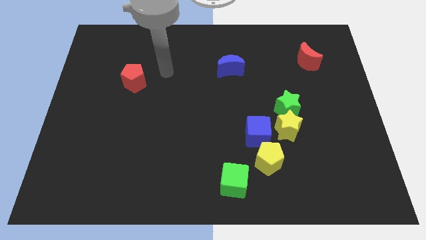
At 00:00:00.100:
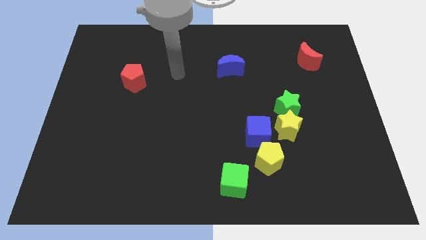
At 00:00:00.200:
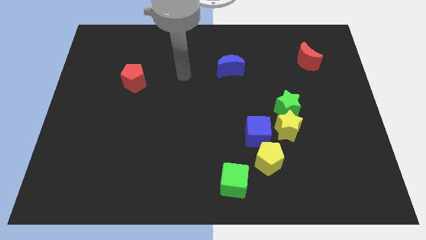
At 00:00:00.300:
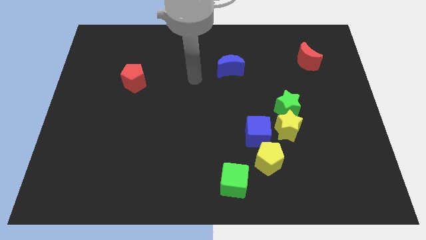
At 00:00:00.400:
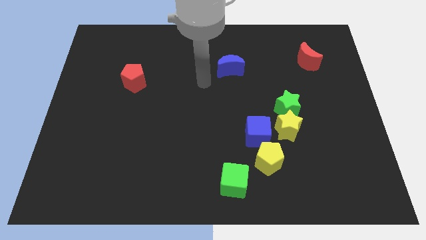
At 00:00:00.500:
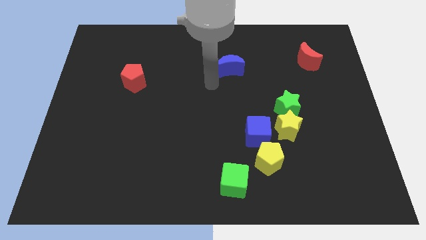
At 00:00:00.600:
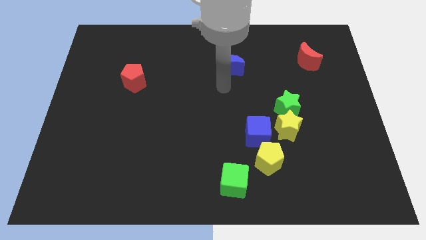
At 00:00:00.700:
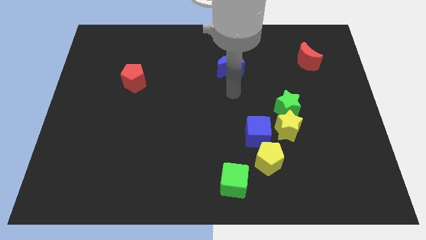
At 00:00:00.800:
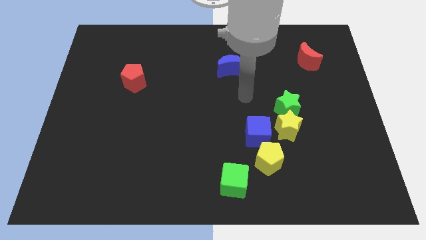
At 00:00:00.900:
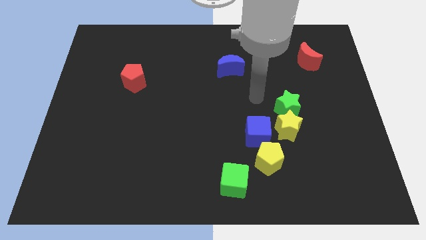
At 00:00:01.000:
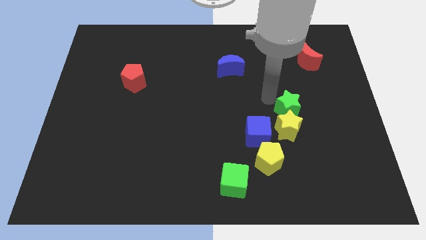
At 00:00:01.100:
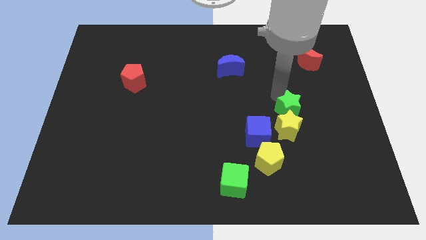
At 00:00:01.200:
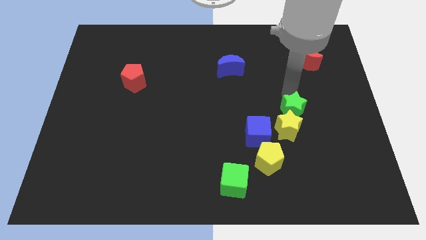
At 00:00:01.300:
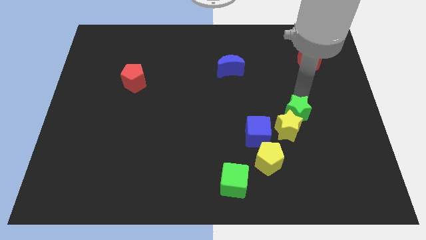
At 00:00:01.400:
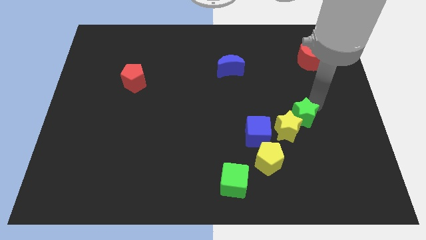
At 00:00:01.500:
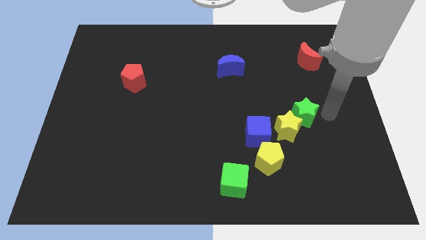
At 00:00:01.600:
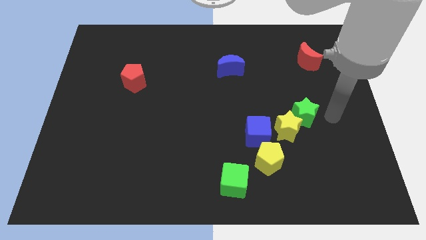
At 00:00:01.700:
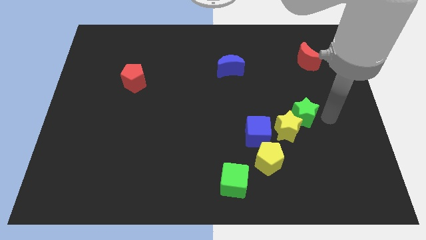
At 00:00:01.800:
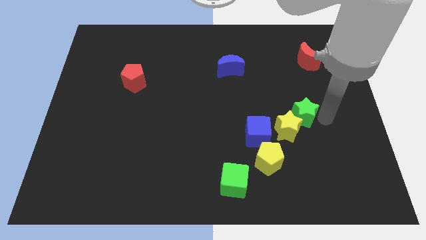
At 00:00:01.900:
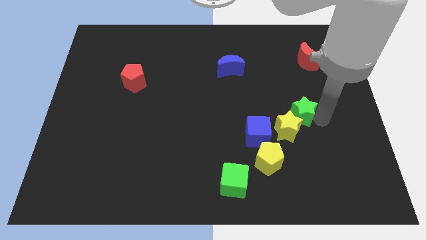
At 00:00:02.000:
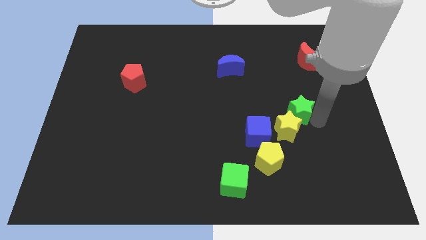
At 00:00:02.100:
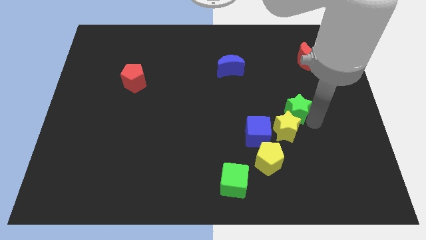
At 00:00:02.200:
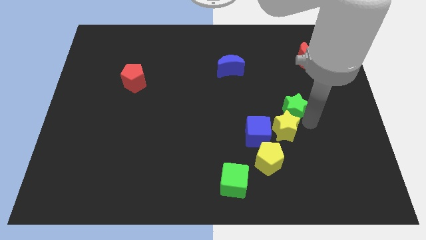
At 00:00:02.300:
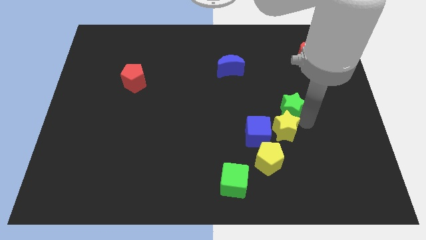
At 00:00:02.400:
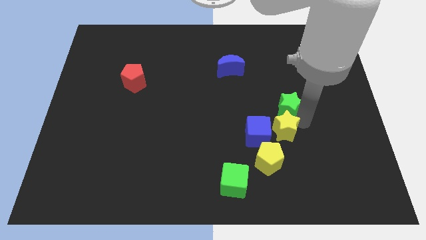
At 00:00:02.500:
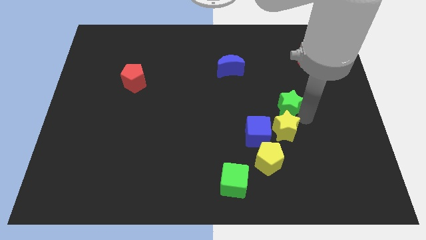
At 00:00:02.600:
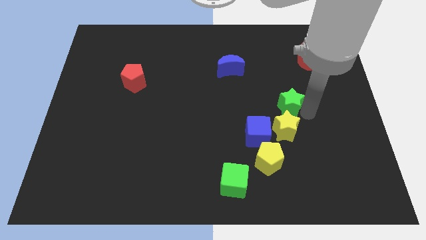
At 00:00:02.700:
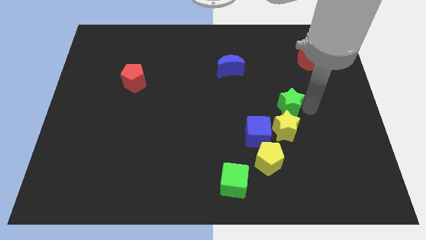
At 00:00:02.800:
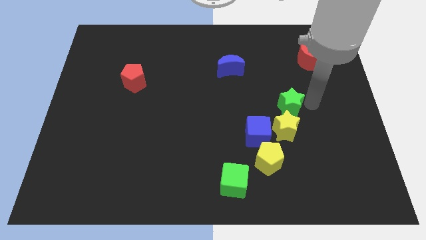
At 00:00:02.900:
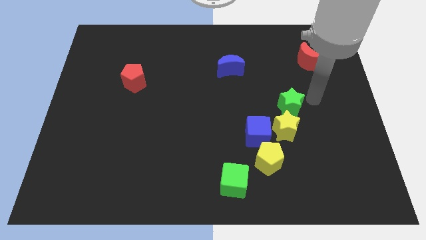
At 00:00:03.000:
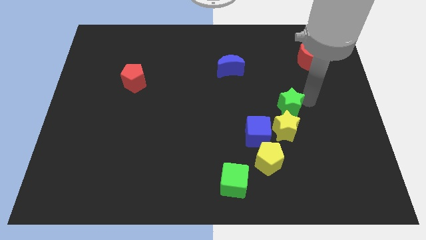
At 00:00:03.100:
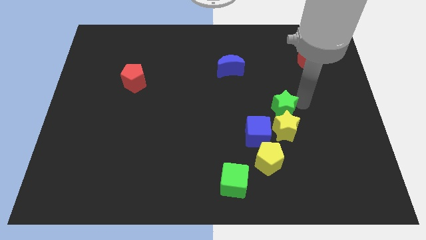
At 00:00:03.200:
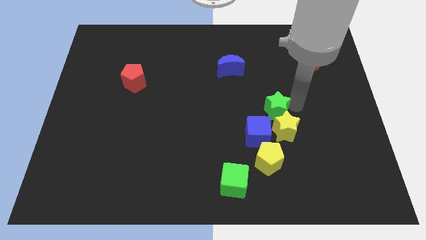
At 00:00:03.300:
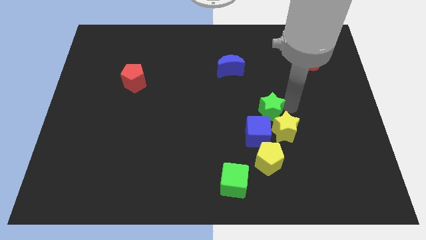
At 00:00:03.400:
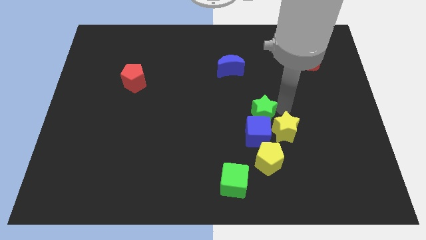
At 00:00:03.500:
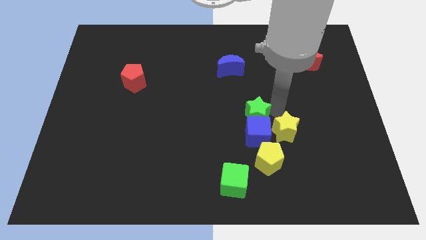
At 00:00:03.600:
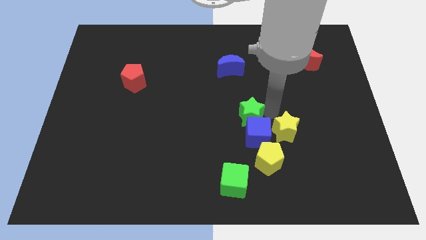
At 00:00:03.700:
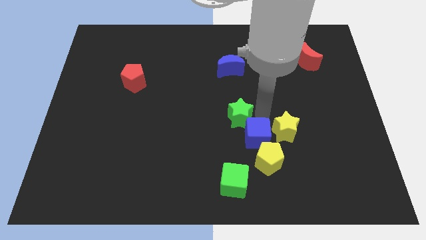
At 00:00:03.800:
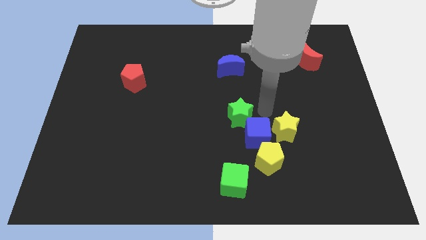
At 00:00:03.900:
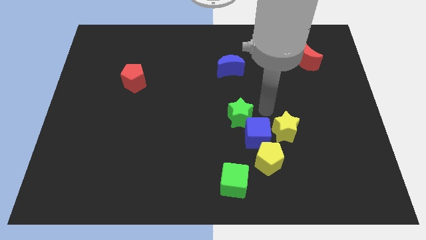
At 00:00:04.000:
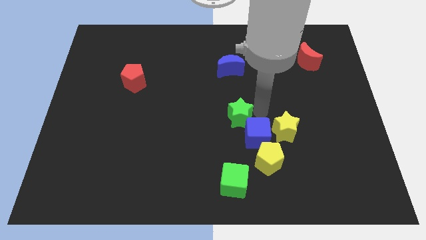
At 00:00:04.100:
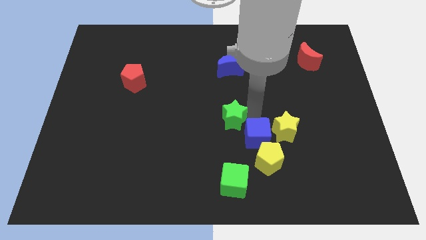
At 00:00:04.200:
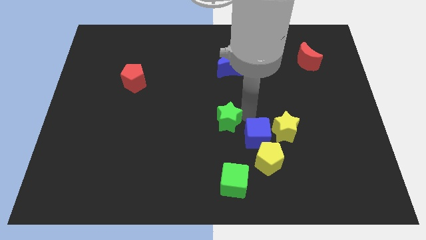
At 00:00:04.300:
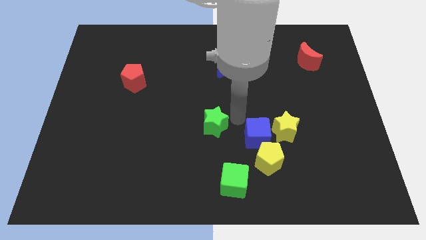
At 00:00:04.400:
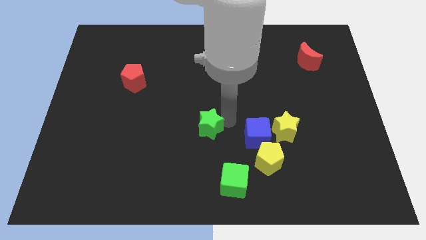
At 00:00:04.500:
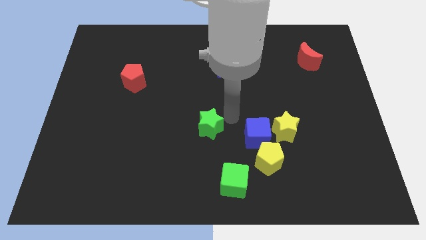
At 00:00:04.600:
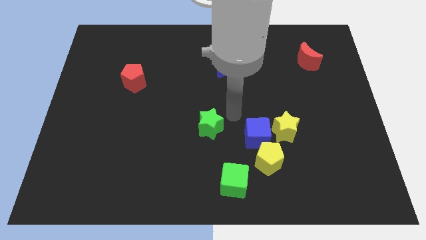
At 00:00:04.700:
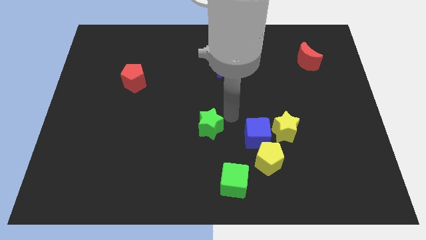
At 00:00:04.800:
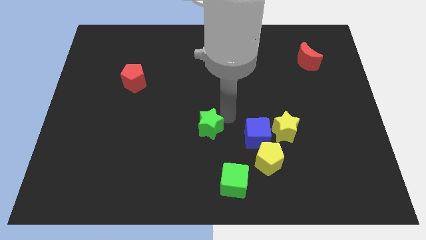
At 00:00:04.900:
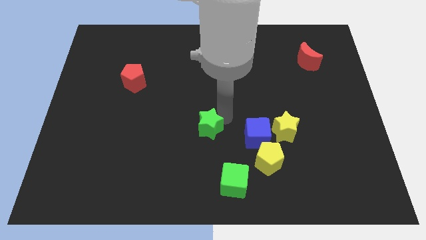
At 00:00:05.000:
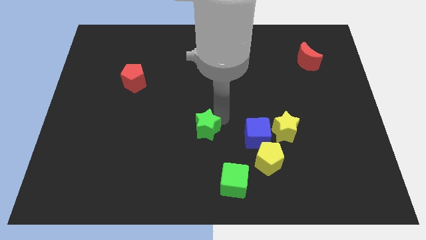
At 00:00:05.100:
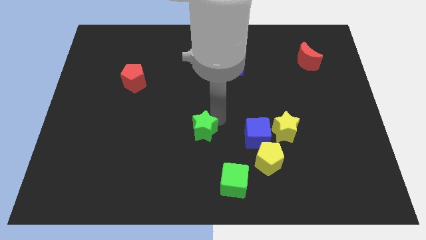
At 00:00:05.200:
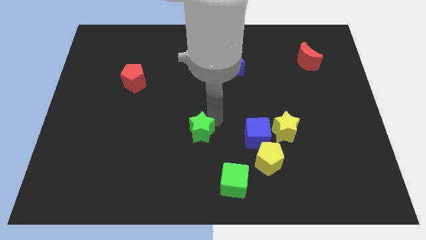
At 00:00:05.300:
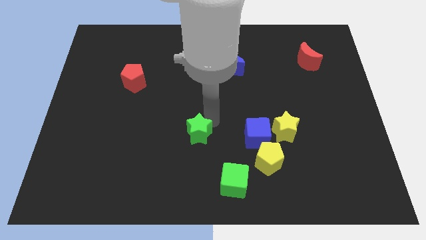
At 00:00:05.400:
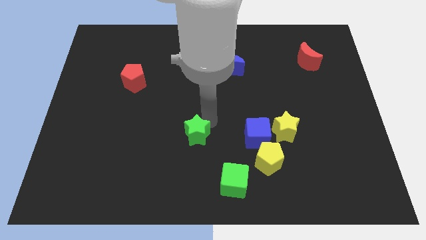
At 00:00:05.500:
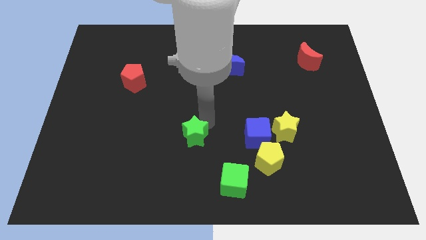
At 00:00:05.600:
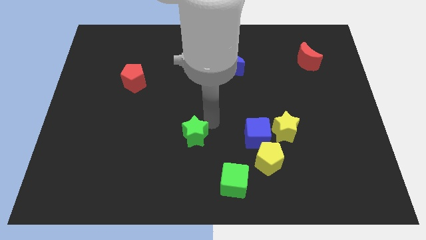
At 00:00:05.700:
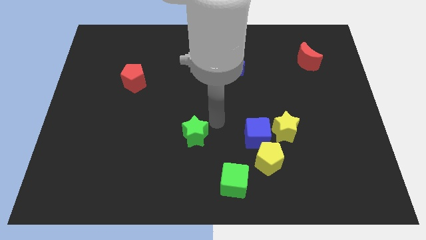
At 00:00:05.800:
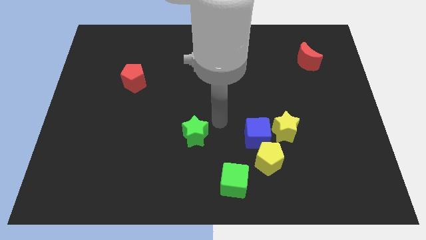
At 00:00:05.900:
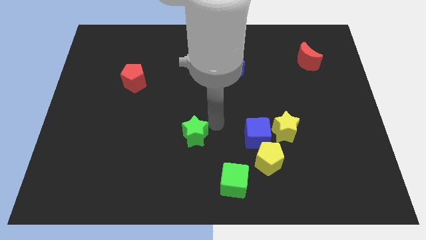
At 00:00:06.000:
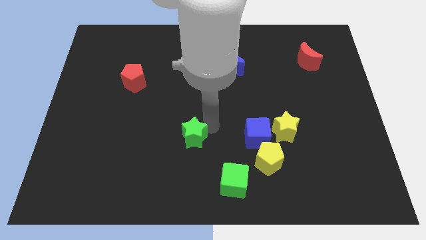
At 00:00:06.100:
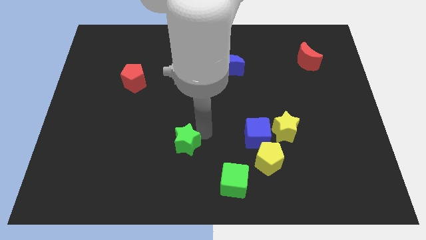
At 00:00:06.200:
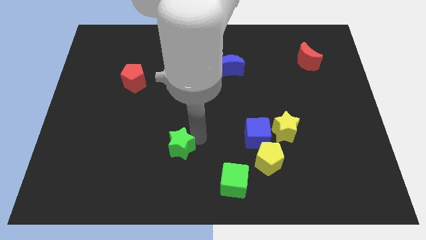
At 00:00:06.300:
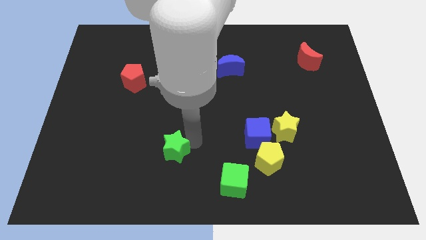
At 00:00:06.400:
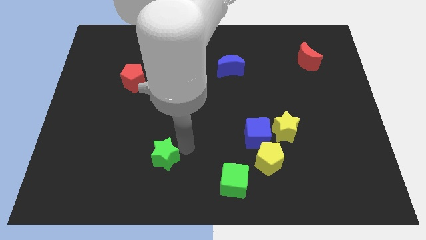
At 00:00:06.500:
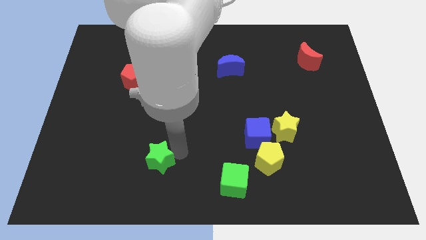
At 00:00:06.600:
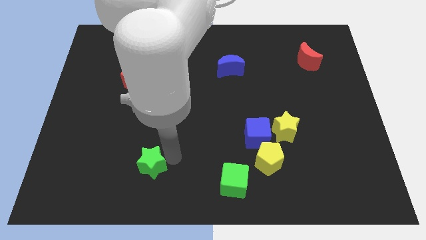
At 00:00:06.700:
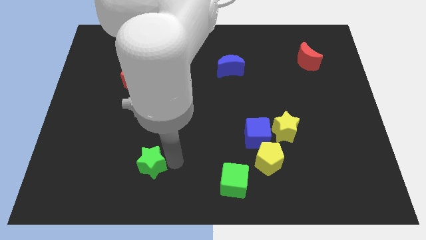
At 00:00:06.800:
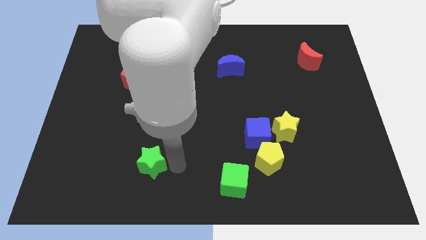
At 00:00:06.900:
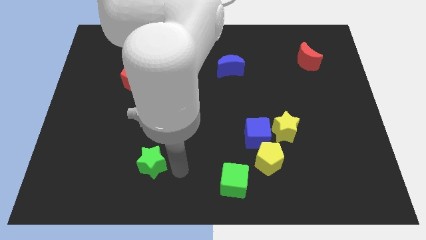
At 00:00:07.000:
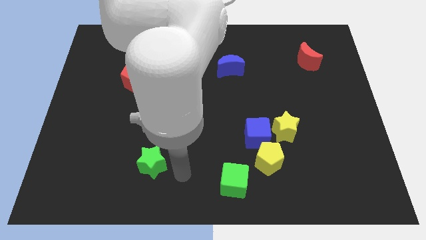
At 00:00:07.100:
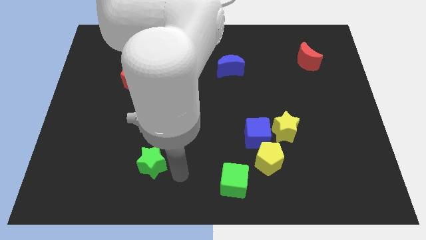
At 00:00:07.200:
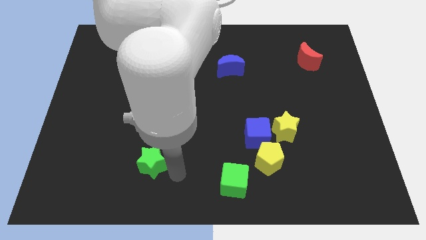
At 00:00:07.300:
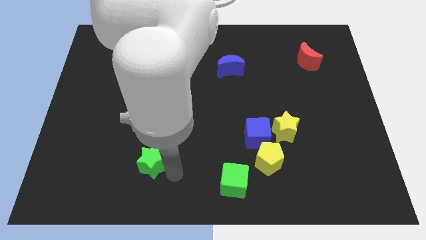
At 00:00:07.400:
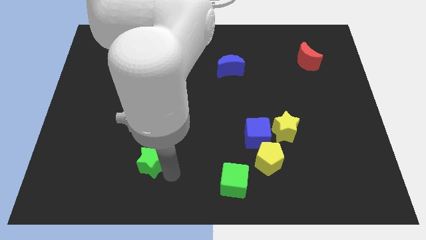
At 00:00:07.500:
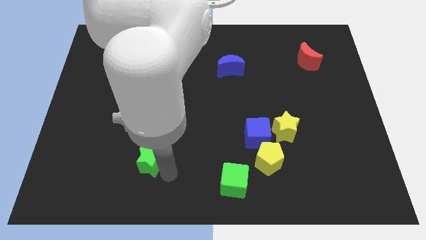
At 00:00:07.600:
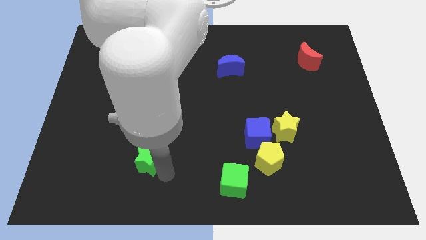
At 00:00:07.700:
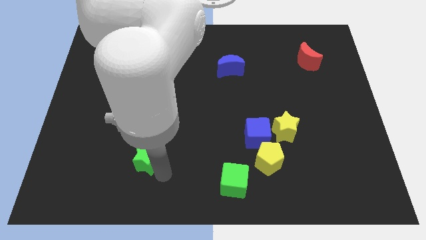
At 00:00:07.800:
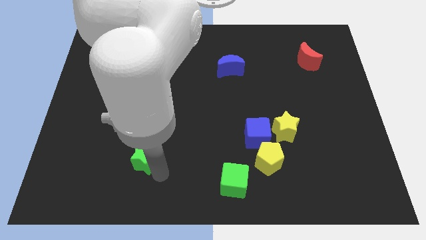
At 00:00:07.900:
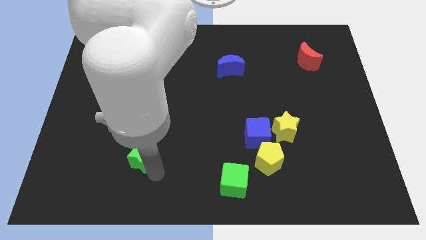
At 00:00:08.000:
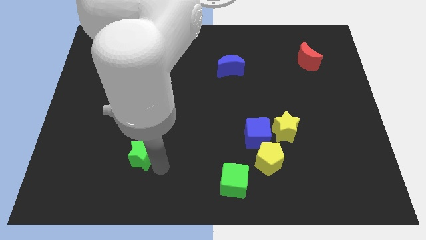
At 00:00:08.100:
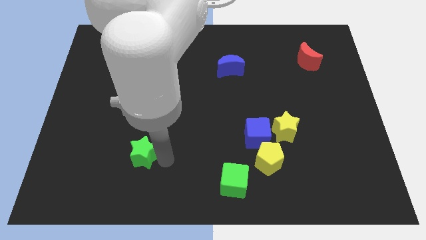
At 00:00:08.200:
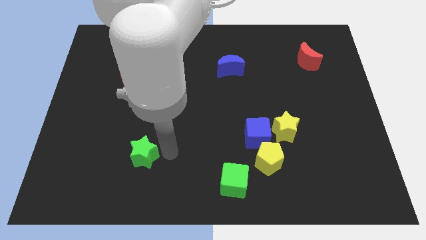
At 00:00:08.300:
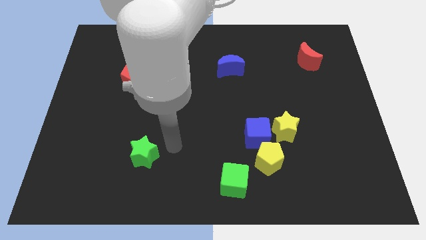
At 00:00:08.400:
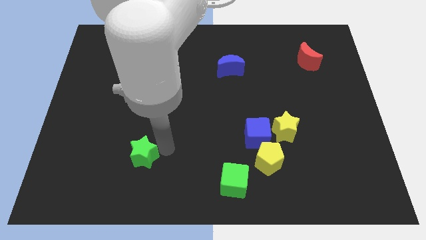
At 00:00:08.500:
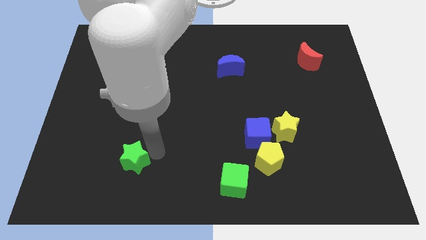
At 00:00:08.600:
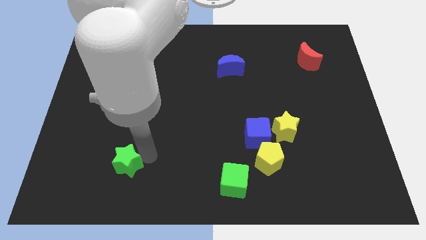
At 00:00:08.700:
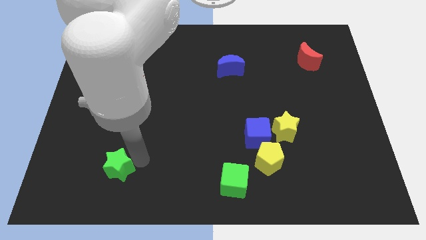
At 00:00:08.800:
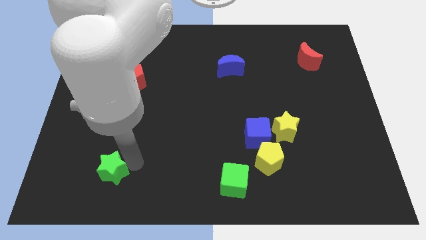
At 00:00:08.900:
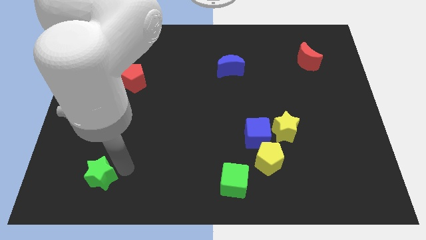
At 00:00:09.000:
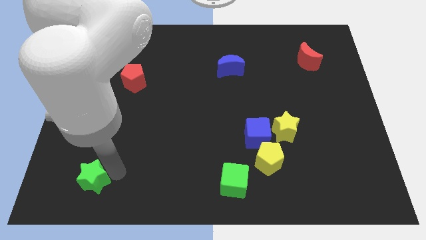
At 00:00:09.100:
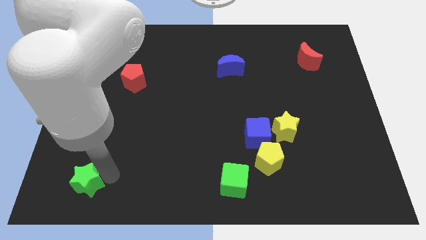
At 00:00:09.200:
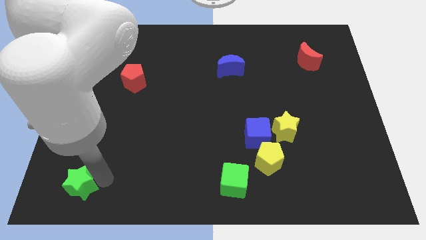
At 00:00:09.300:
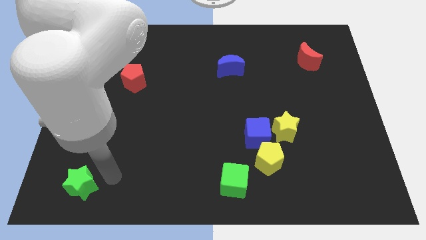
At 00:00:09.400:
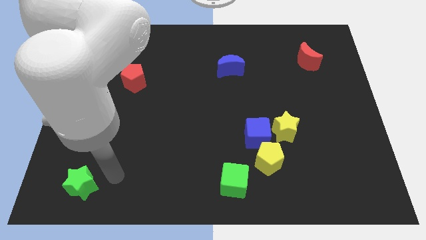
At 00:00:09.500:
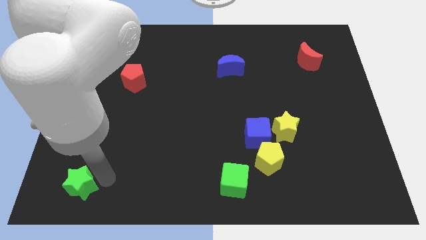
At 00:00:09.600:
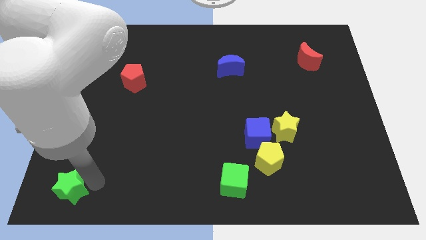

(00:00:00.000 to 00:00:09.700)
slide the green star to the bottom left corner
